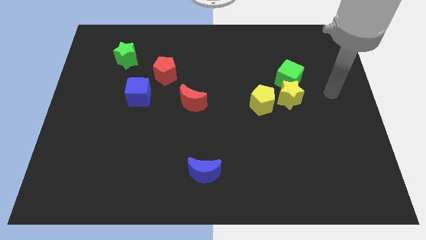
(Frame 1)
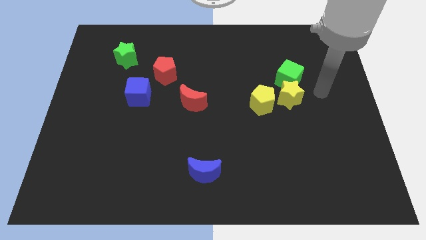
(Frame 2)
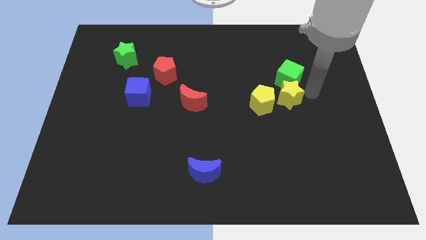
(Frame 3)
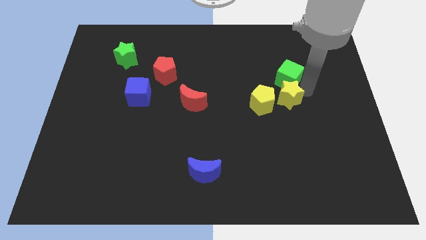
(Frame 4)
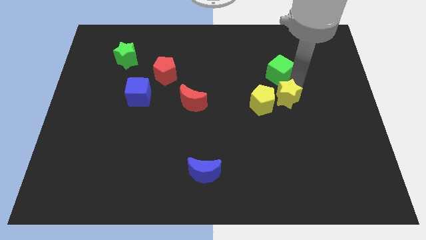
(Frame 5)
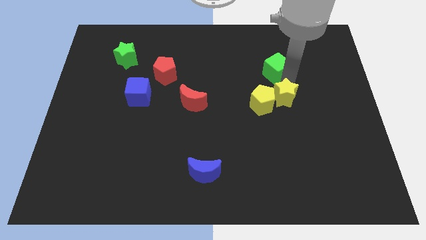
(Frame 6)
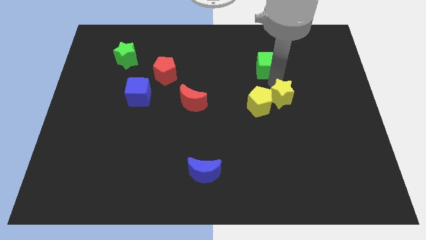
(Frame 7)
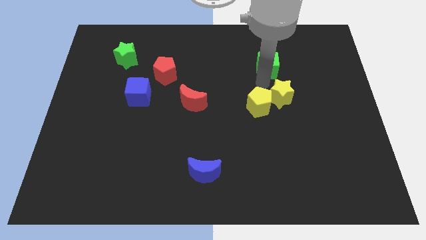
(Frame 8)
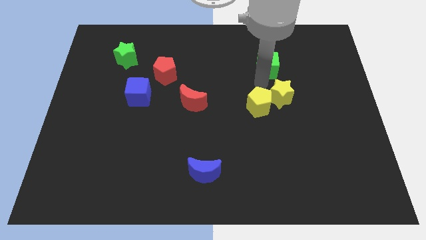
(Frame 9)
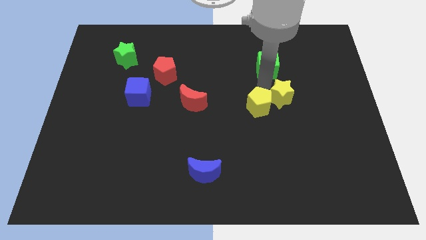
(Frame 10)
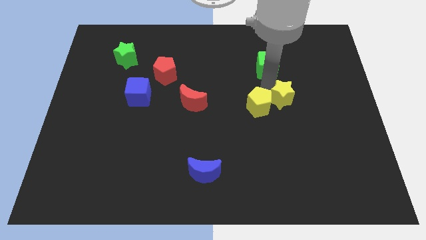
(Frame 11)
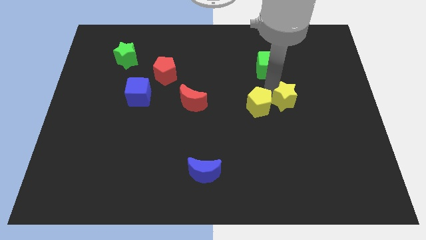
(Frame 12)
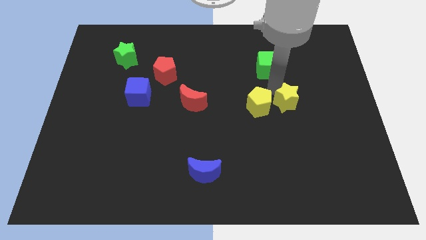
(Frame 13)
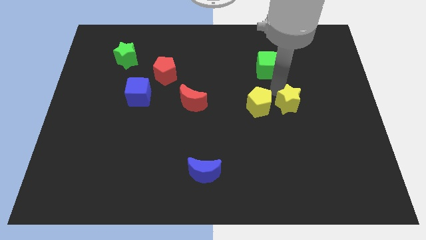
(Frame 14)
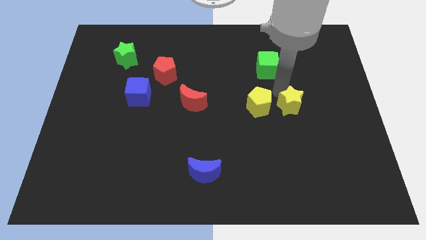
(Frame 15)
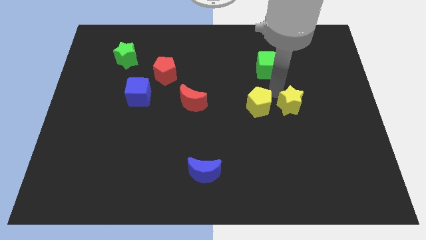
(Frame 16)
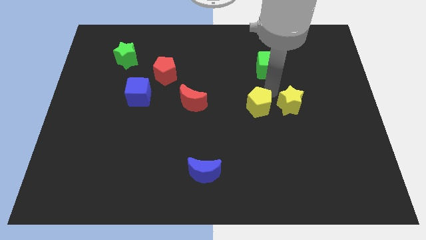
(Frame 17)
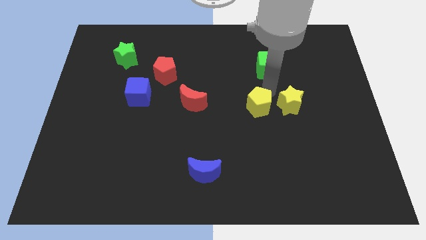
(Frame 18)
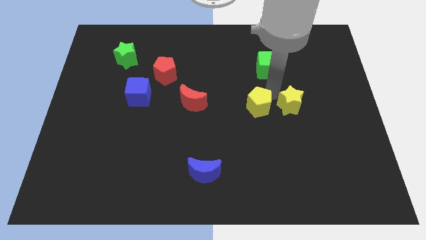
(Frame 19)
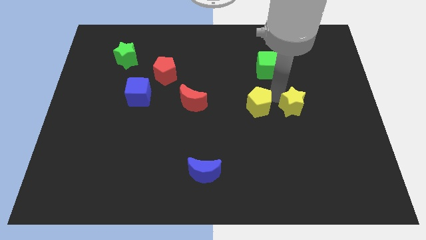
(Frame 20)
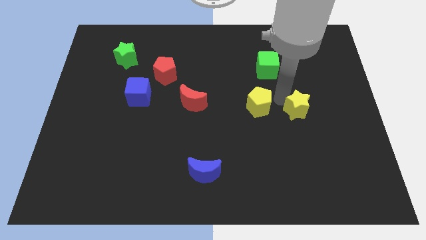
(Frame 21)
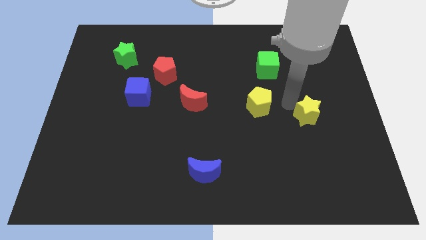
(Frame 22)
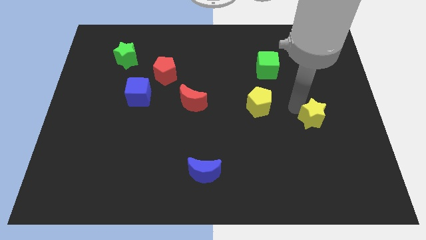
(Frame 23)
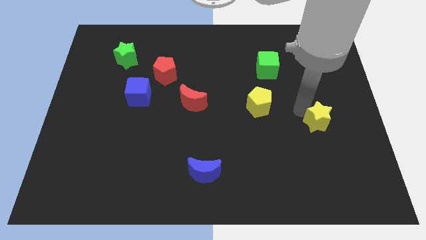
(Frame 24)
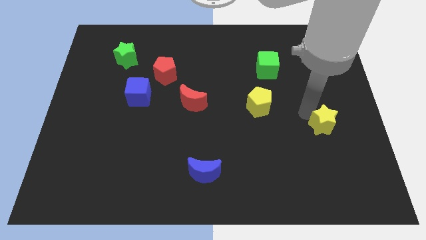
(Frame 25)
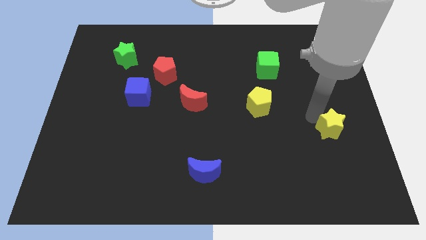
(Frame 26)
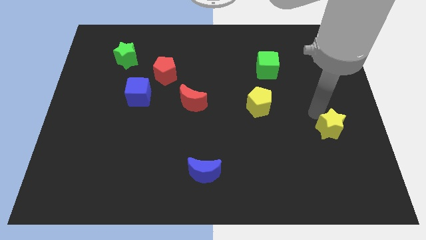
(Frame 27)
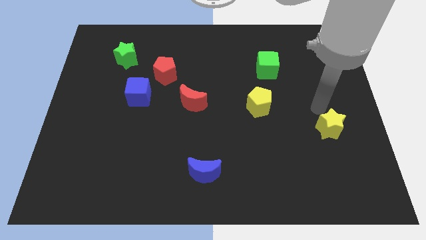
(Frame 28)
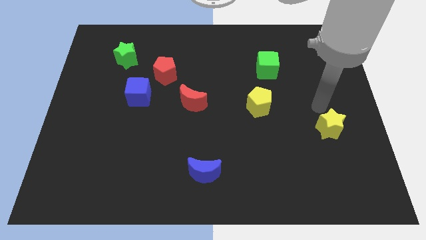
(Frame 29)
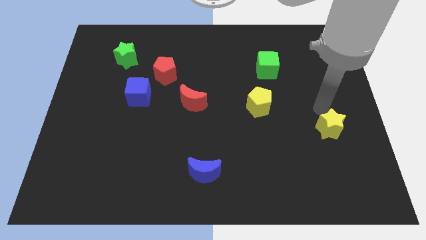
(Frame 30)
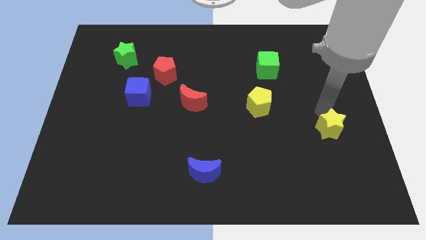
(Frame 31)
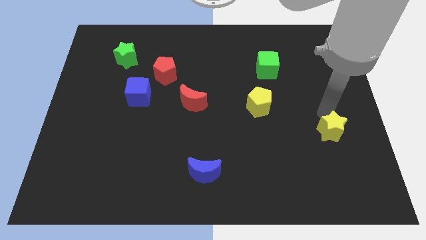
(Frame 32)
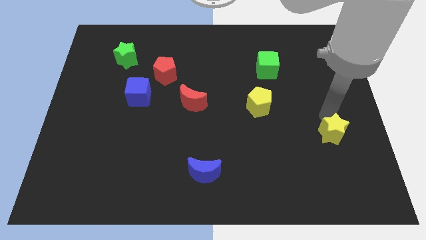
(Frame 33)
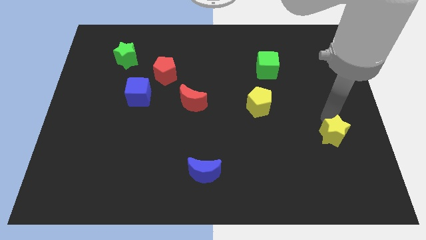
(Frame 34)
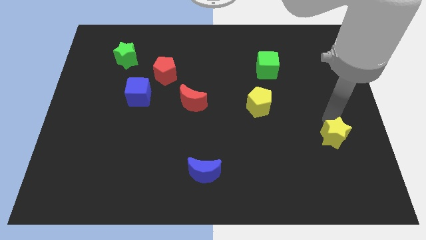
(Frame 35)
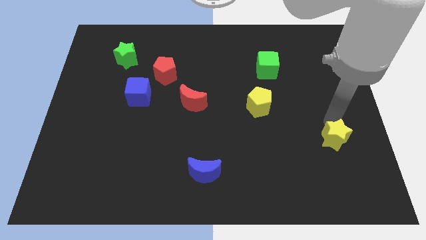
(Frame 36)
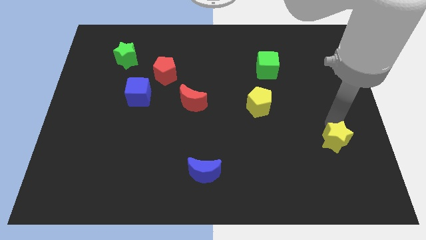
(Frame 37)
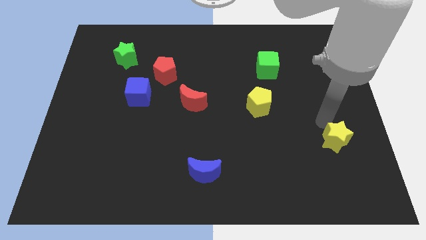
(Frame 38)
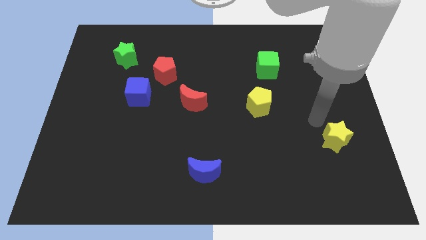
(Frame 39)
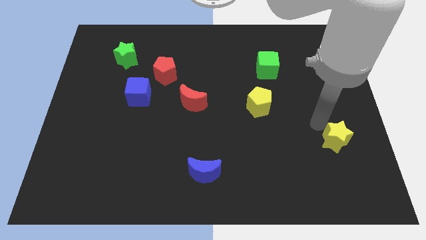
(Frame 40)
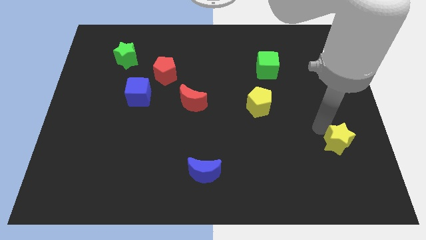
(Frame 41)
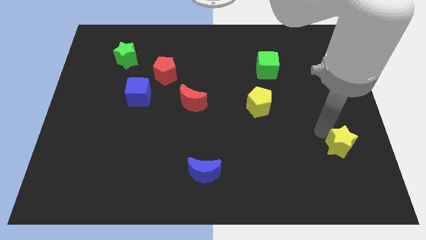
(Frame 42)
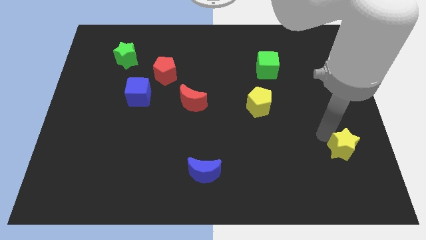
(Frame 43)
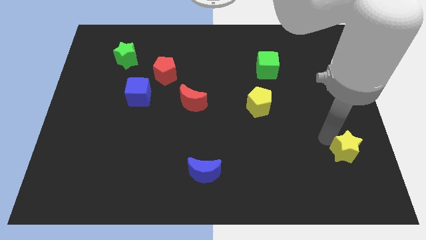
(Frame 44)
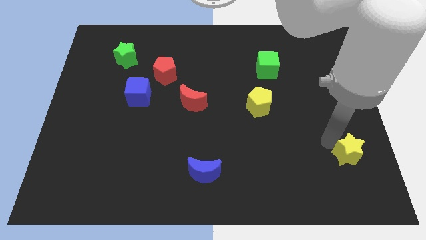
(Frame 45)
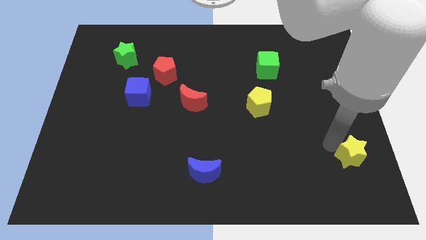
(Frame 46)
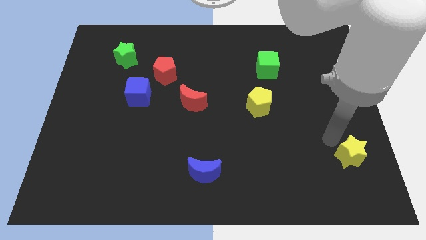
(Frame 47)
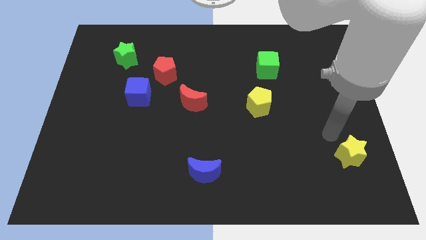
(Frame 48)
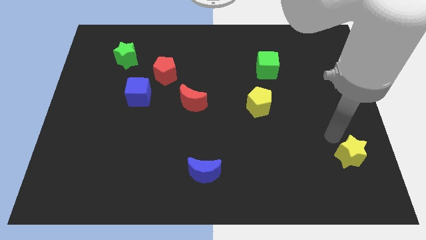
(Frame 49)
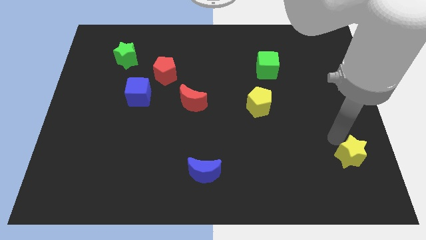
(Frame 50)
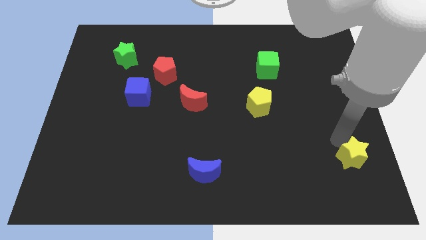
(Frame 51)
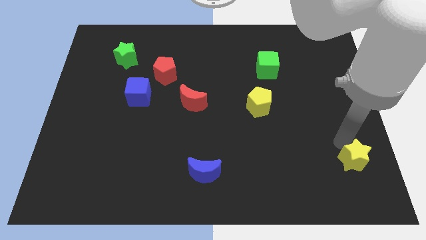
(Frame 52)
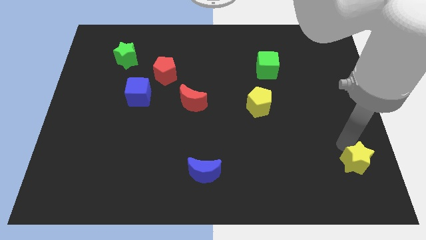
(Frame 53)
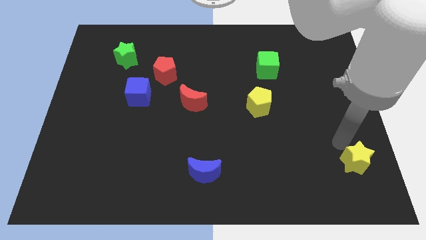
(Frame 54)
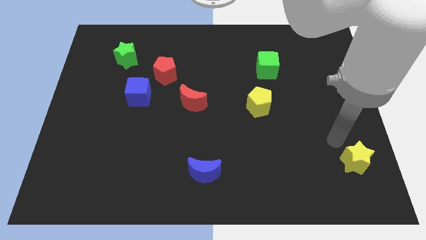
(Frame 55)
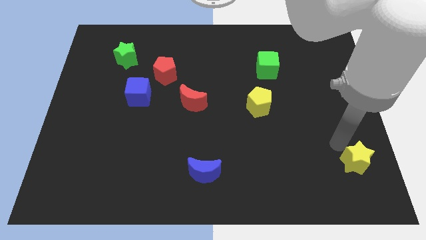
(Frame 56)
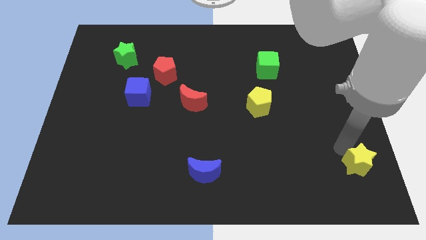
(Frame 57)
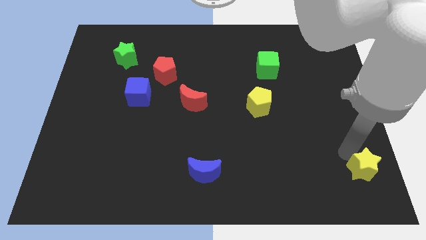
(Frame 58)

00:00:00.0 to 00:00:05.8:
put the yellow star to the bottom right of the board
